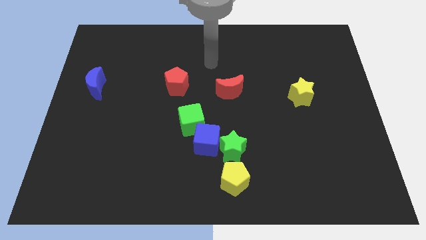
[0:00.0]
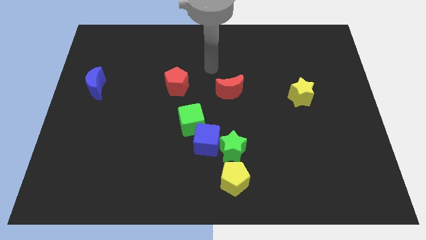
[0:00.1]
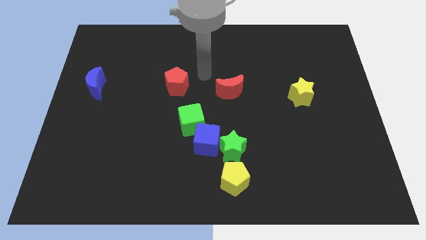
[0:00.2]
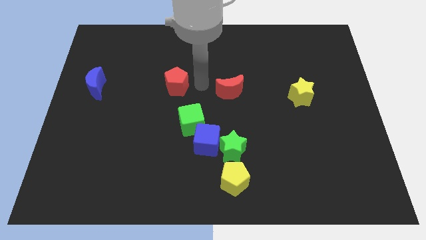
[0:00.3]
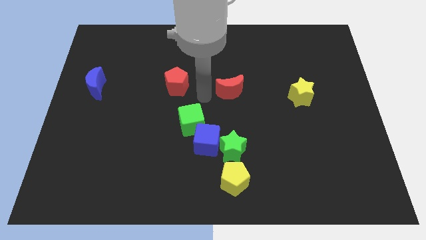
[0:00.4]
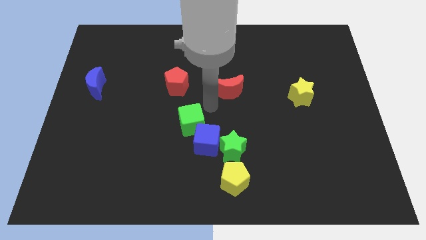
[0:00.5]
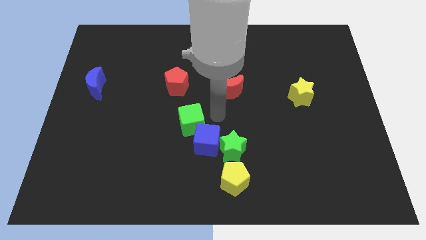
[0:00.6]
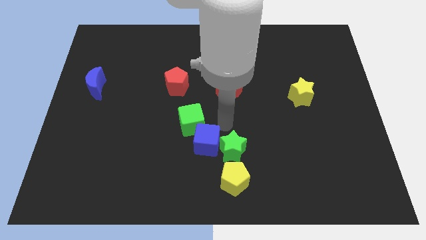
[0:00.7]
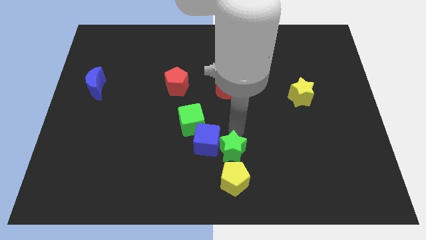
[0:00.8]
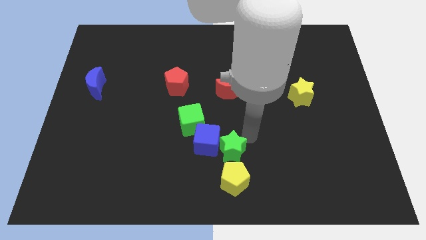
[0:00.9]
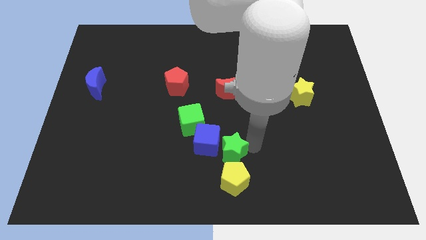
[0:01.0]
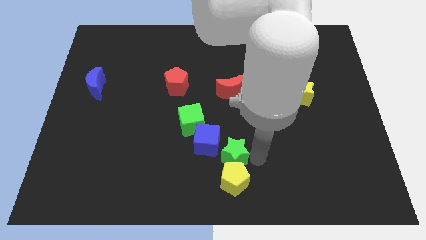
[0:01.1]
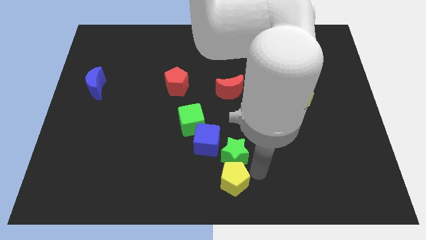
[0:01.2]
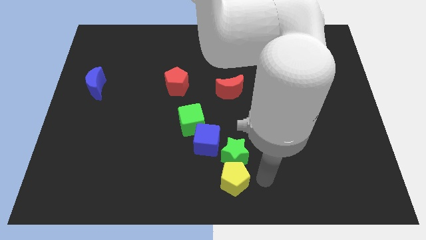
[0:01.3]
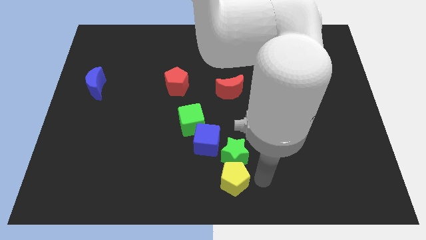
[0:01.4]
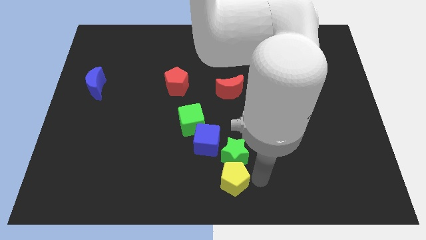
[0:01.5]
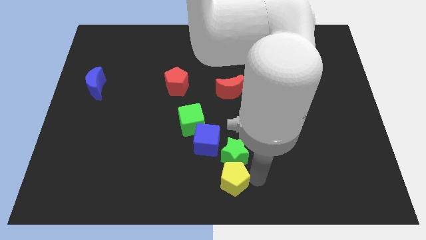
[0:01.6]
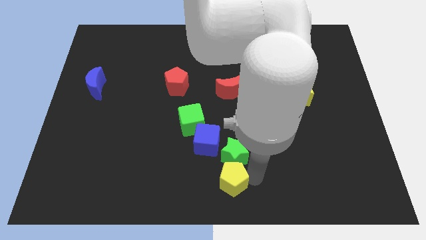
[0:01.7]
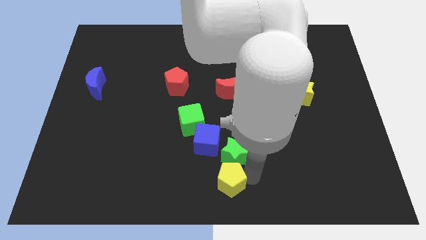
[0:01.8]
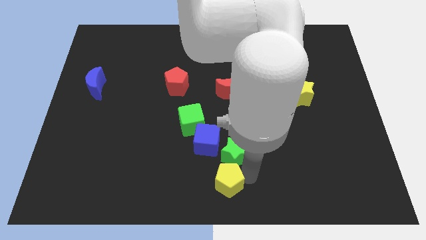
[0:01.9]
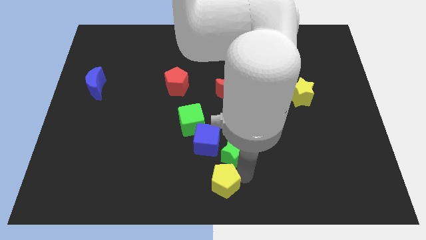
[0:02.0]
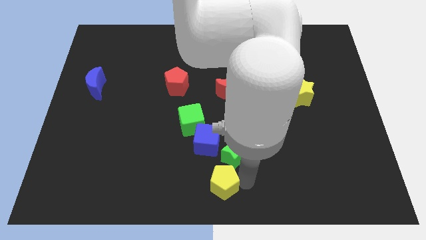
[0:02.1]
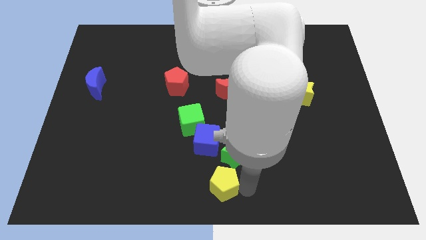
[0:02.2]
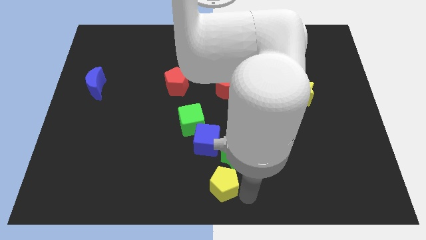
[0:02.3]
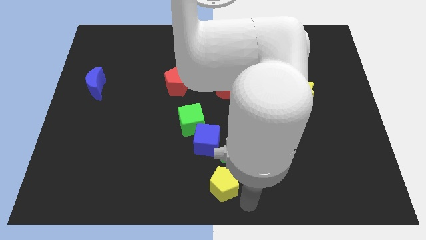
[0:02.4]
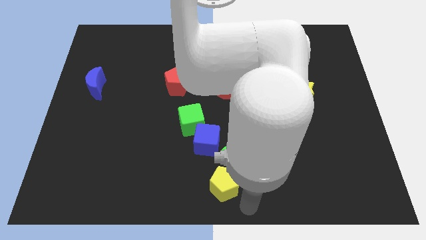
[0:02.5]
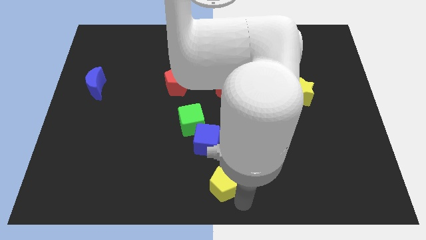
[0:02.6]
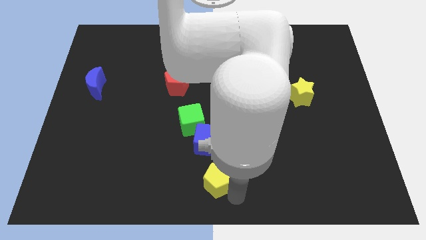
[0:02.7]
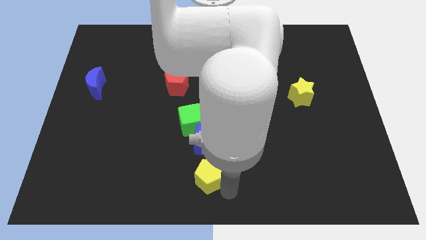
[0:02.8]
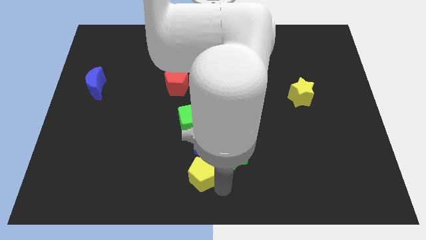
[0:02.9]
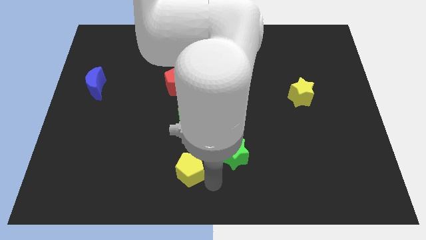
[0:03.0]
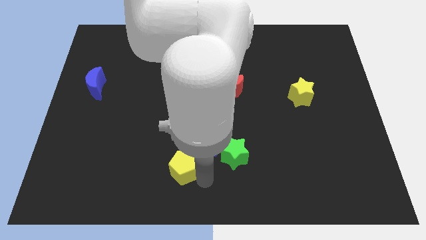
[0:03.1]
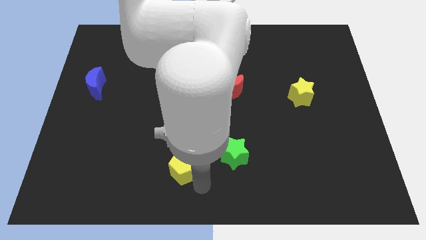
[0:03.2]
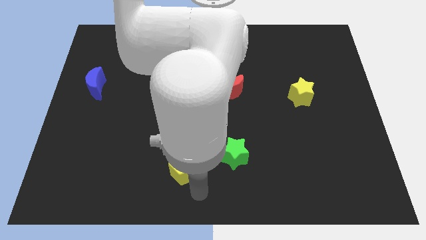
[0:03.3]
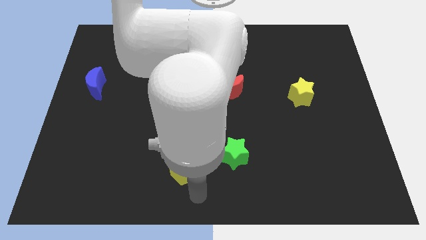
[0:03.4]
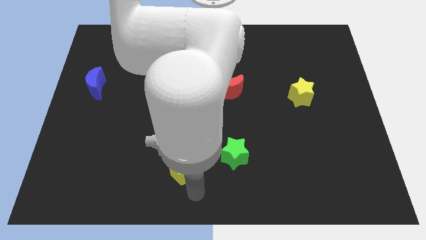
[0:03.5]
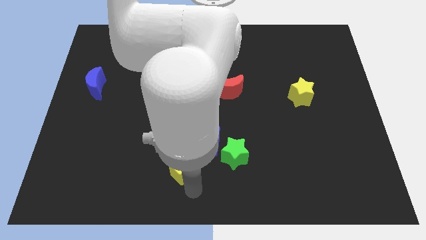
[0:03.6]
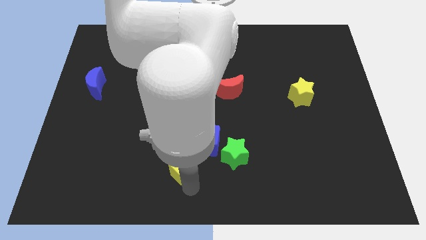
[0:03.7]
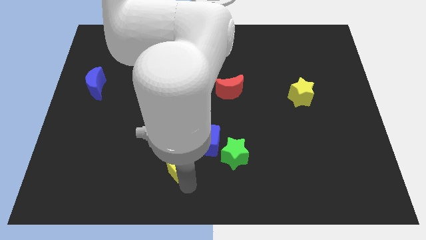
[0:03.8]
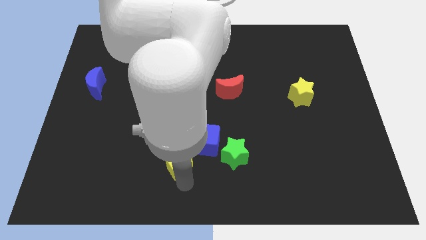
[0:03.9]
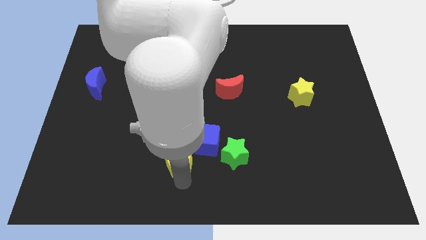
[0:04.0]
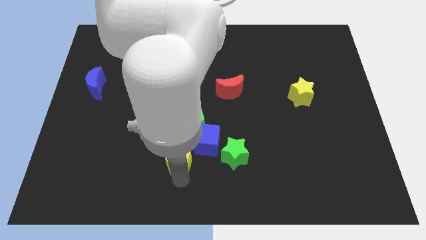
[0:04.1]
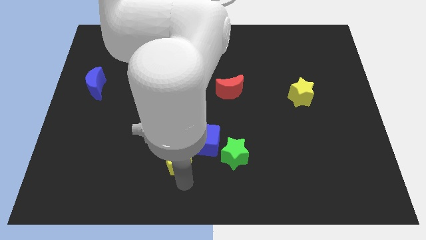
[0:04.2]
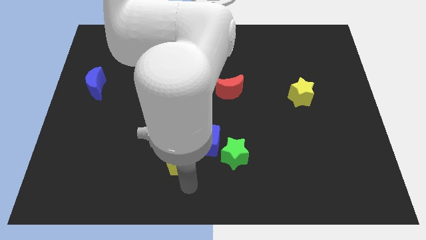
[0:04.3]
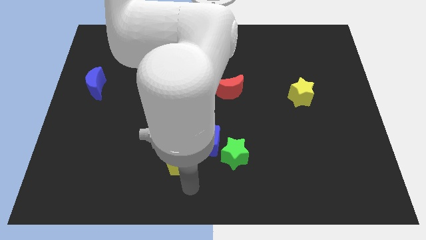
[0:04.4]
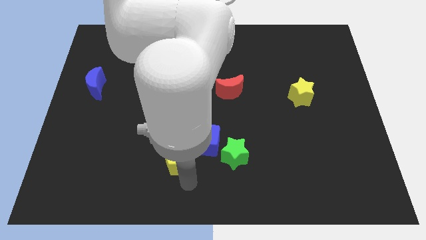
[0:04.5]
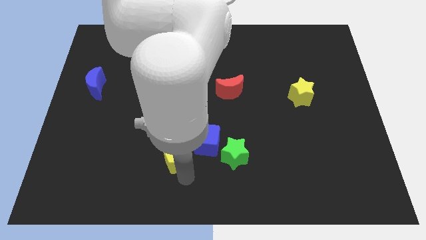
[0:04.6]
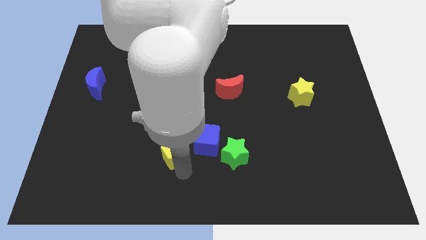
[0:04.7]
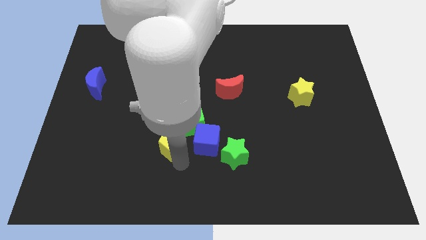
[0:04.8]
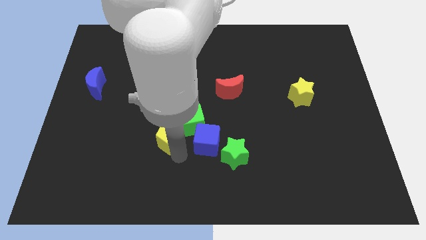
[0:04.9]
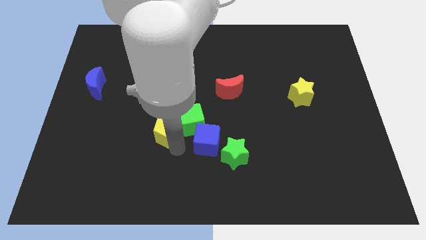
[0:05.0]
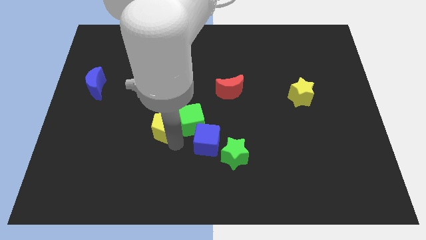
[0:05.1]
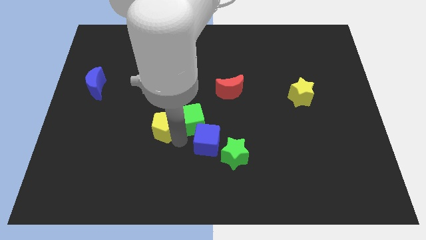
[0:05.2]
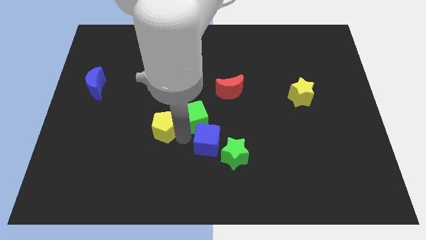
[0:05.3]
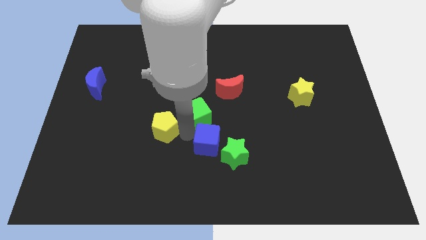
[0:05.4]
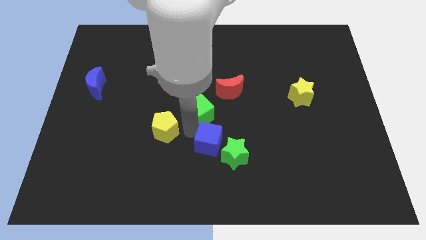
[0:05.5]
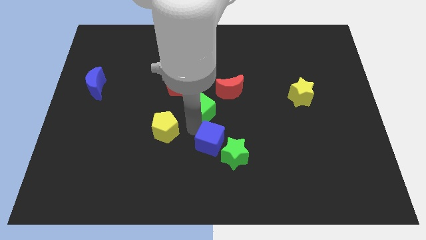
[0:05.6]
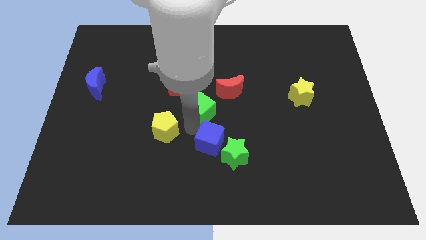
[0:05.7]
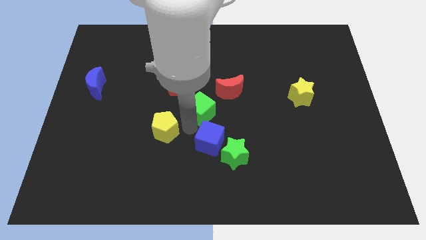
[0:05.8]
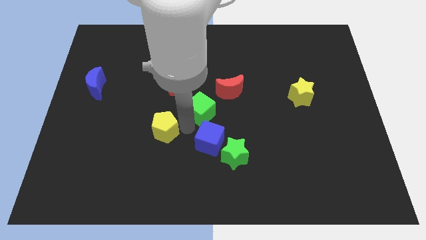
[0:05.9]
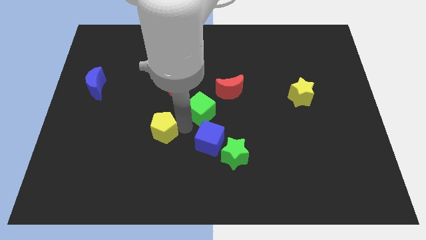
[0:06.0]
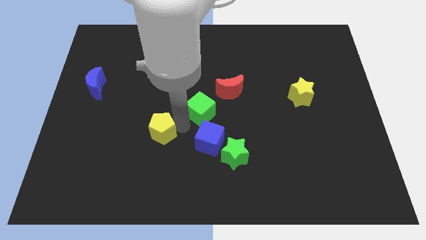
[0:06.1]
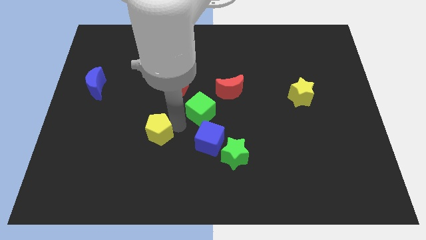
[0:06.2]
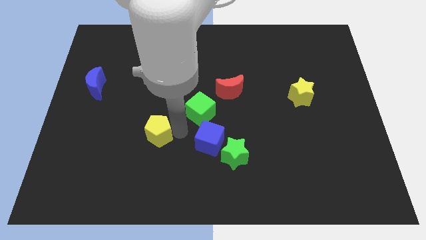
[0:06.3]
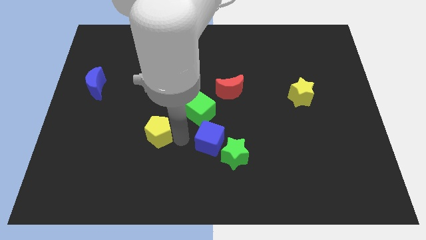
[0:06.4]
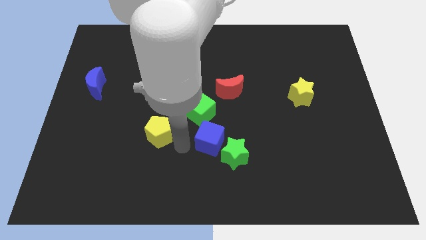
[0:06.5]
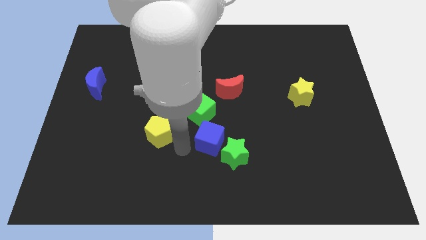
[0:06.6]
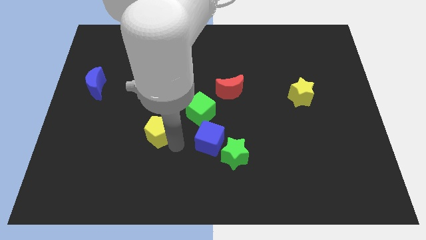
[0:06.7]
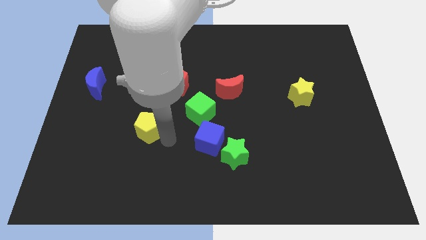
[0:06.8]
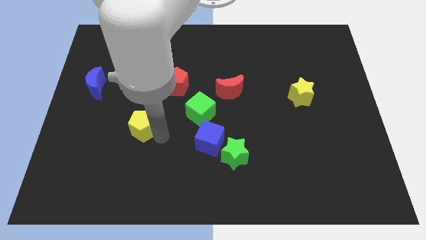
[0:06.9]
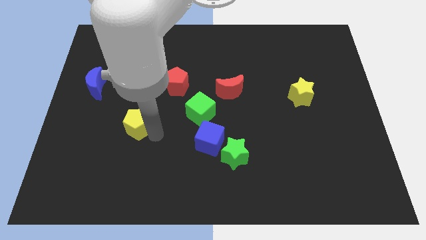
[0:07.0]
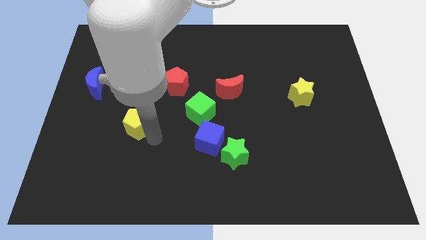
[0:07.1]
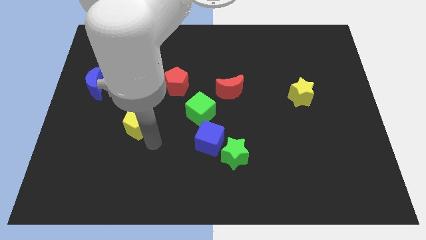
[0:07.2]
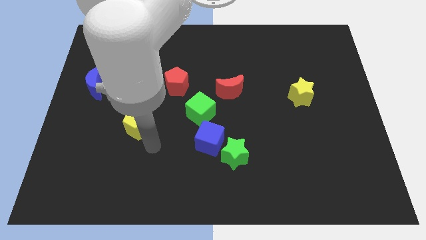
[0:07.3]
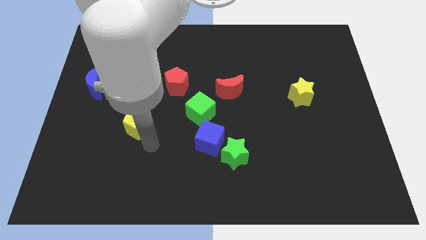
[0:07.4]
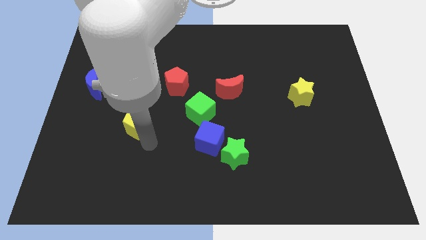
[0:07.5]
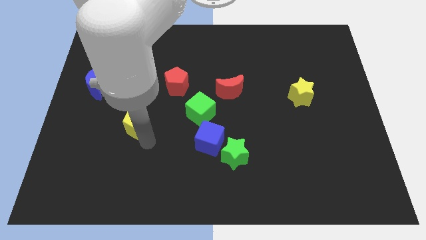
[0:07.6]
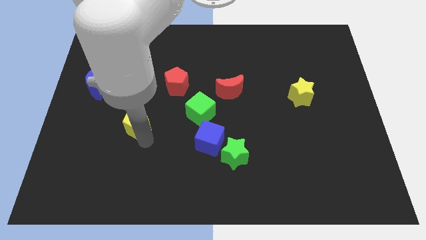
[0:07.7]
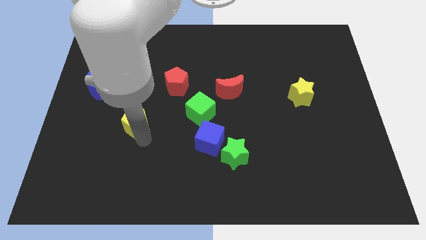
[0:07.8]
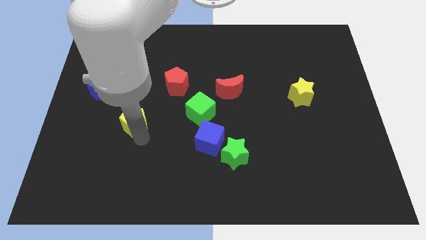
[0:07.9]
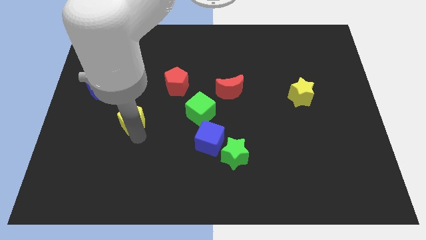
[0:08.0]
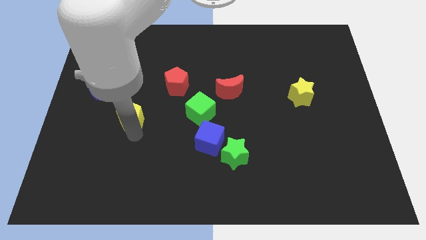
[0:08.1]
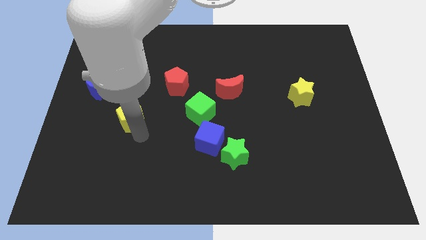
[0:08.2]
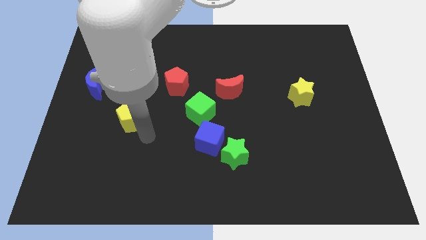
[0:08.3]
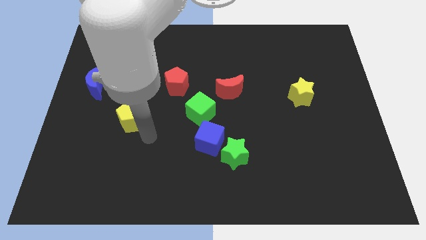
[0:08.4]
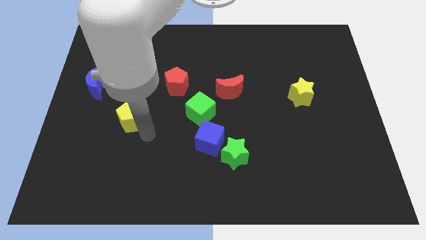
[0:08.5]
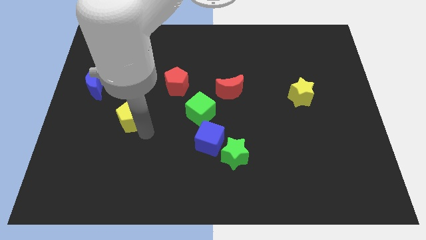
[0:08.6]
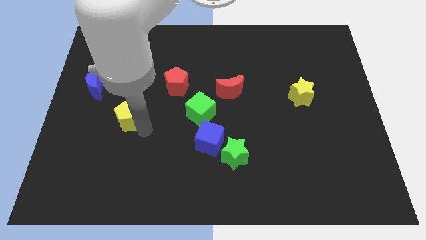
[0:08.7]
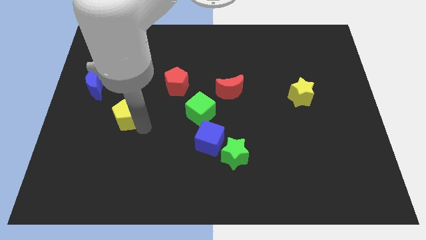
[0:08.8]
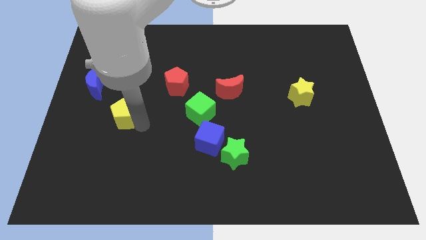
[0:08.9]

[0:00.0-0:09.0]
move the yellow pentagon diagonally down and to the right of the blue moon
